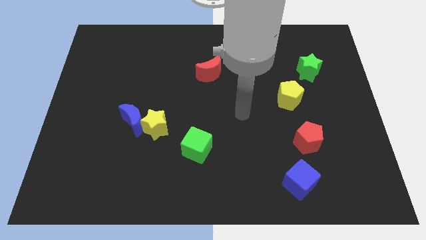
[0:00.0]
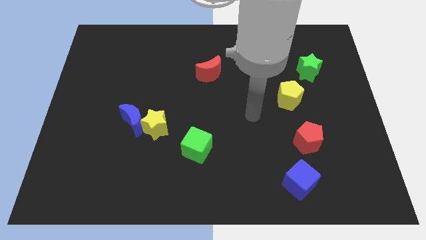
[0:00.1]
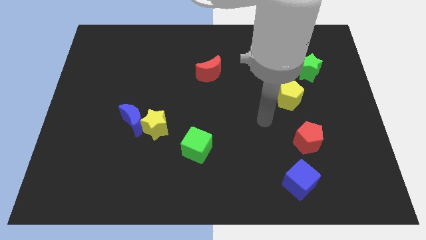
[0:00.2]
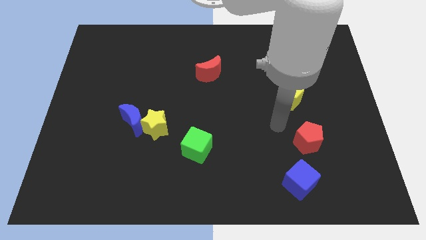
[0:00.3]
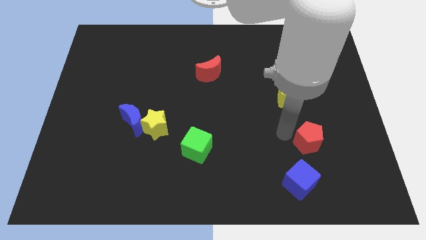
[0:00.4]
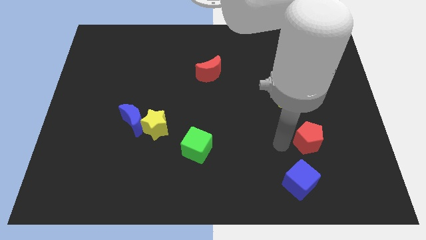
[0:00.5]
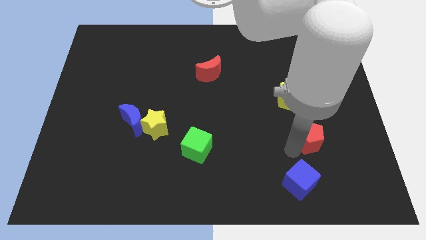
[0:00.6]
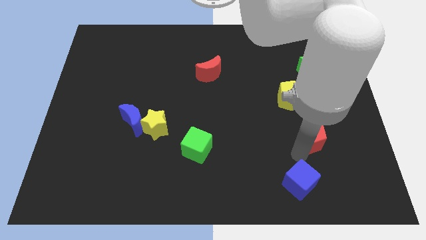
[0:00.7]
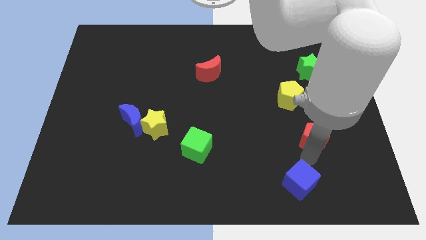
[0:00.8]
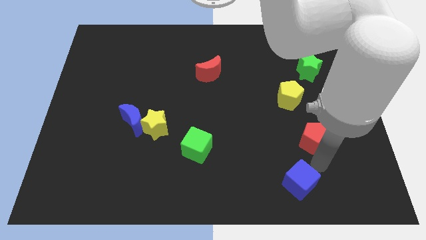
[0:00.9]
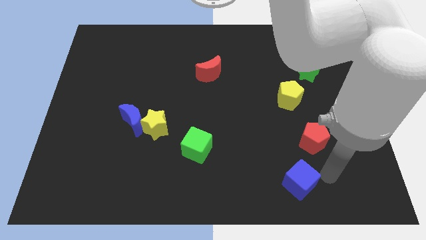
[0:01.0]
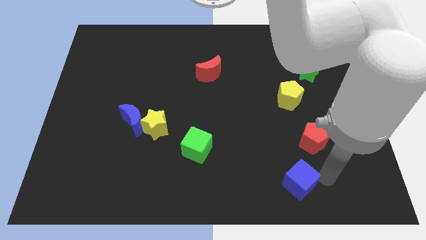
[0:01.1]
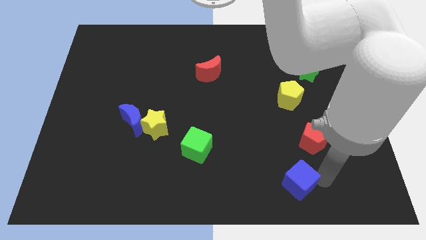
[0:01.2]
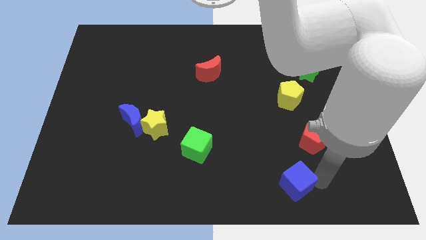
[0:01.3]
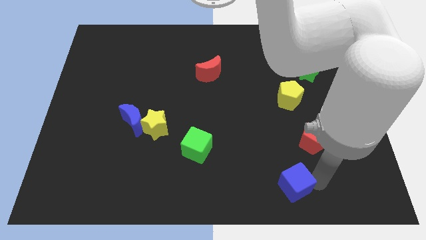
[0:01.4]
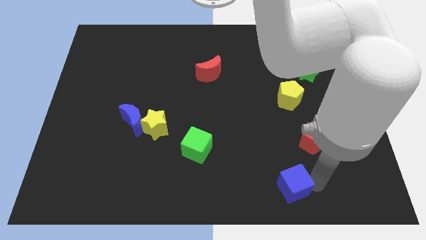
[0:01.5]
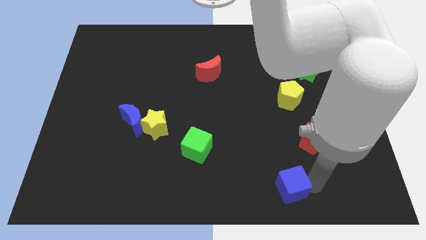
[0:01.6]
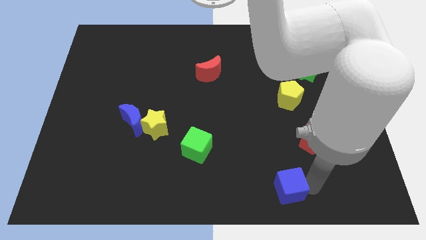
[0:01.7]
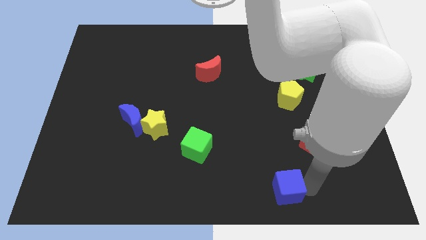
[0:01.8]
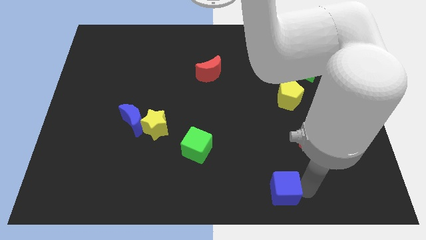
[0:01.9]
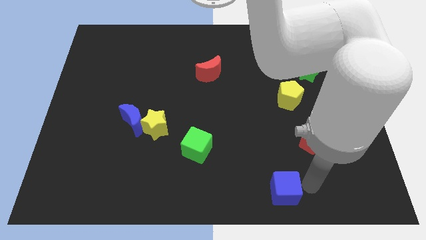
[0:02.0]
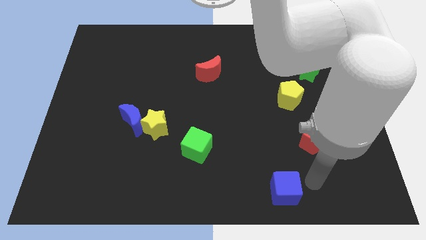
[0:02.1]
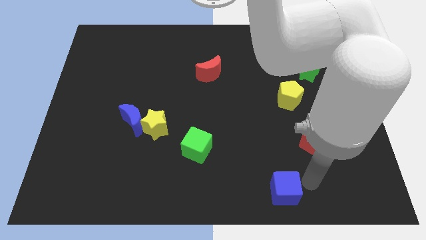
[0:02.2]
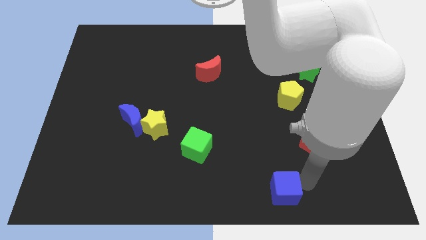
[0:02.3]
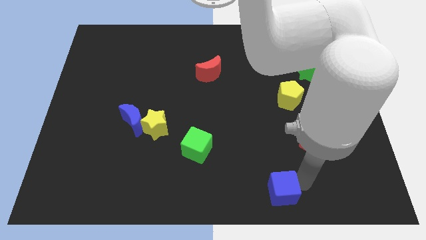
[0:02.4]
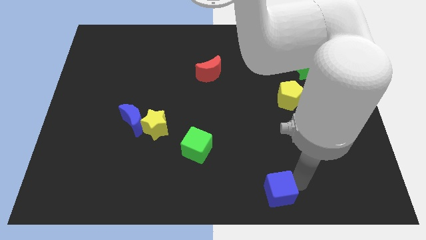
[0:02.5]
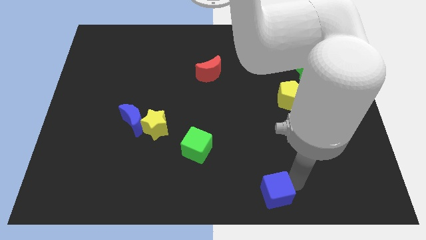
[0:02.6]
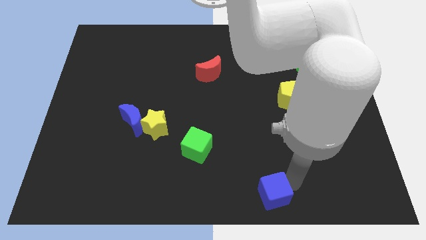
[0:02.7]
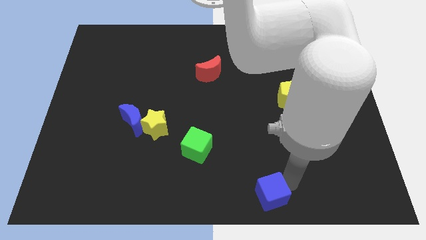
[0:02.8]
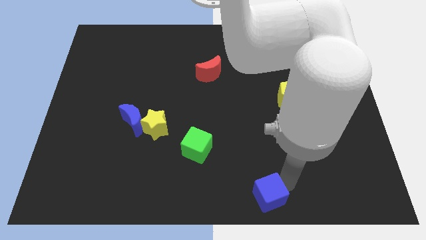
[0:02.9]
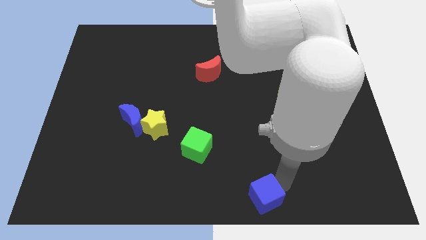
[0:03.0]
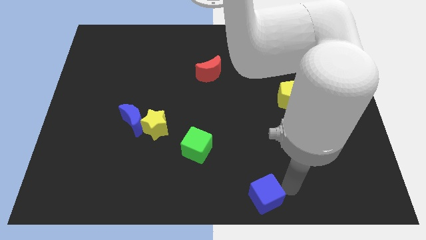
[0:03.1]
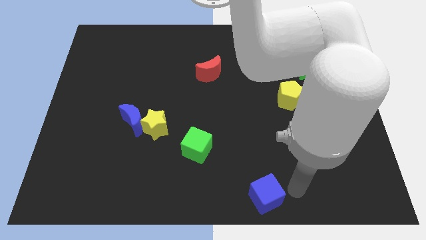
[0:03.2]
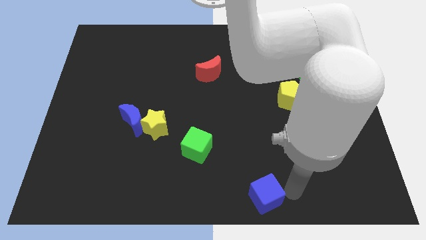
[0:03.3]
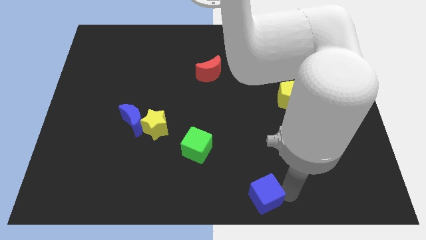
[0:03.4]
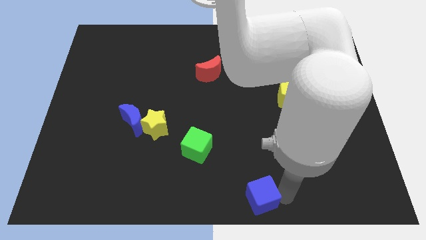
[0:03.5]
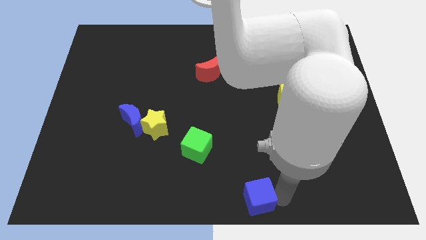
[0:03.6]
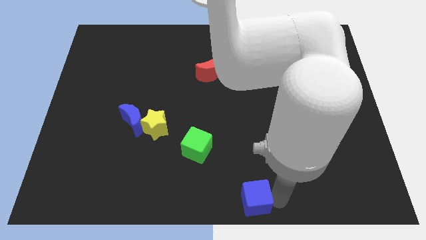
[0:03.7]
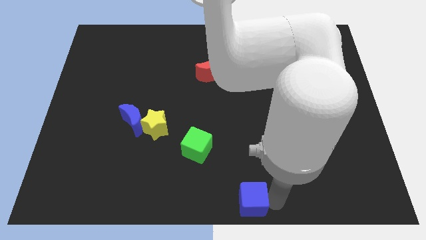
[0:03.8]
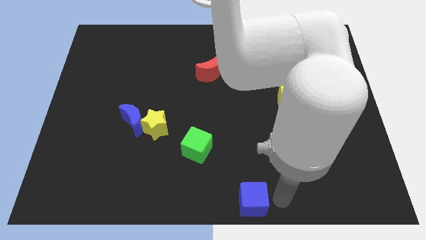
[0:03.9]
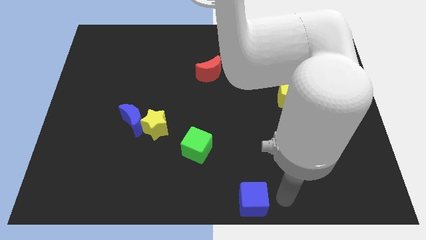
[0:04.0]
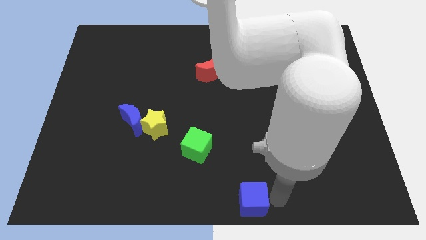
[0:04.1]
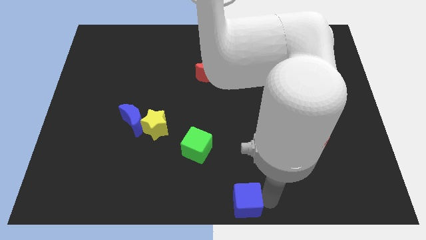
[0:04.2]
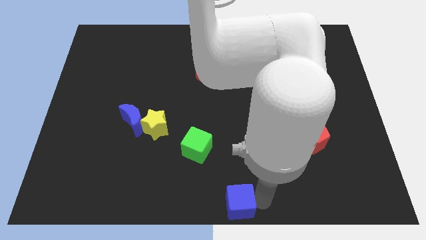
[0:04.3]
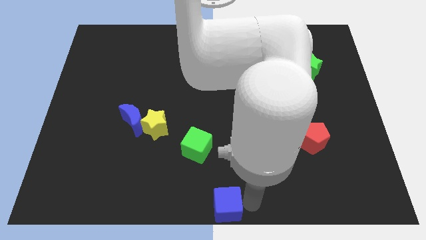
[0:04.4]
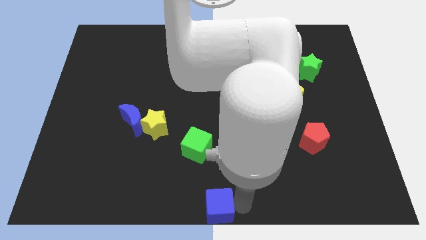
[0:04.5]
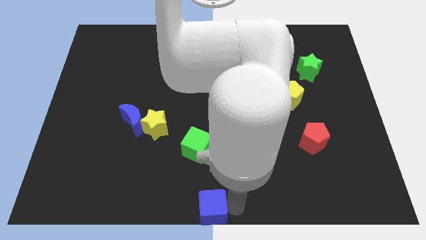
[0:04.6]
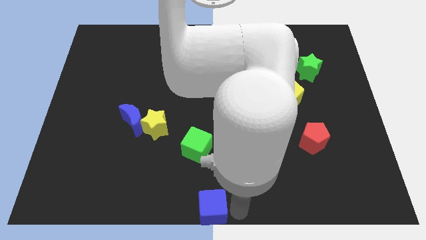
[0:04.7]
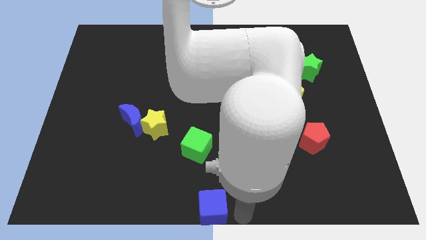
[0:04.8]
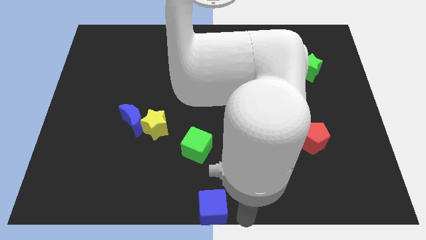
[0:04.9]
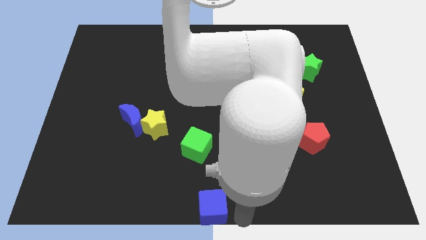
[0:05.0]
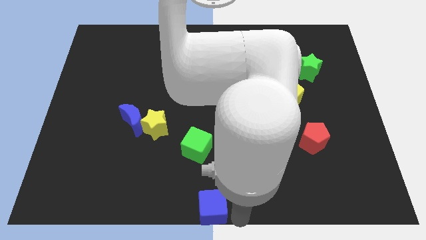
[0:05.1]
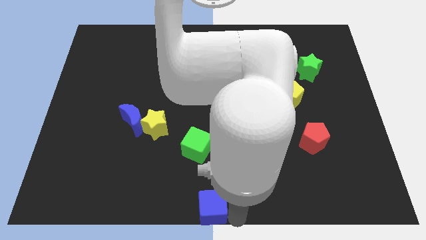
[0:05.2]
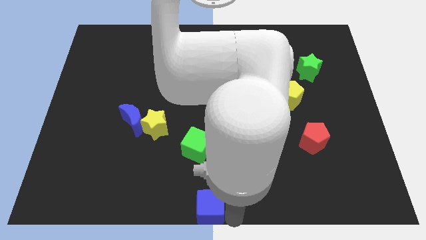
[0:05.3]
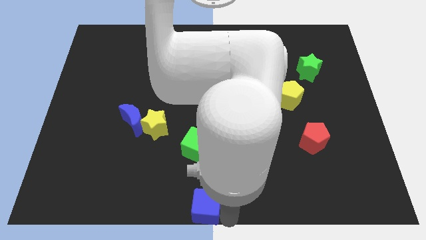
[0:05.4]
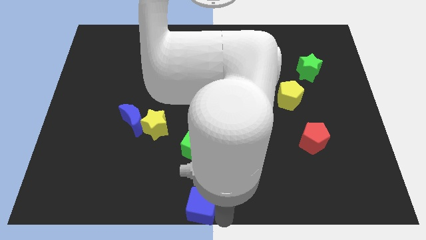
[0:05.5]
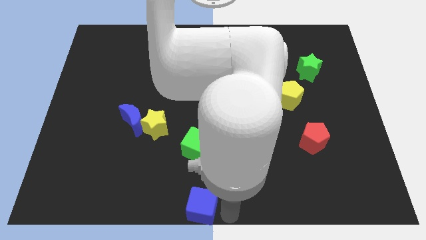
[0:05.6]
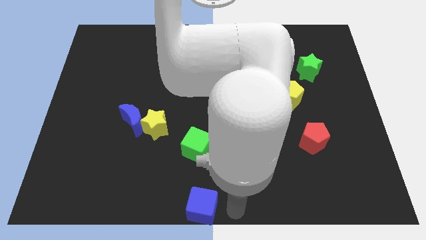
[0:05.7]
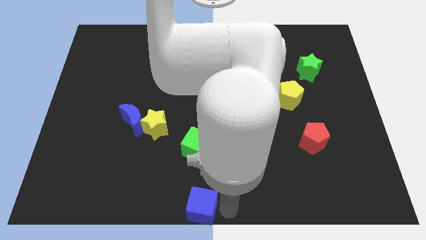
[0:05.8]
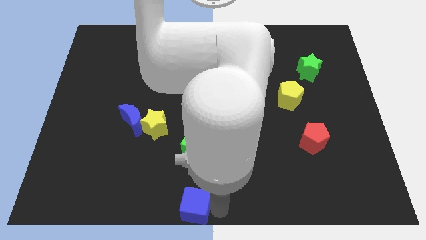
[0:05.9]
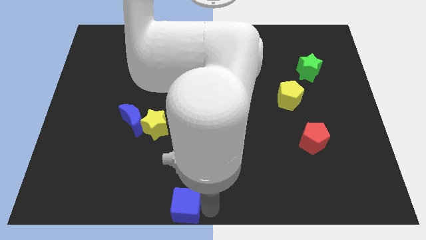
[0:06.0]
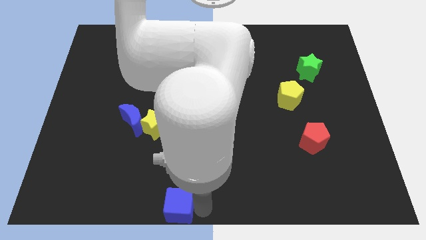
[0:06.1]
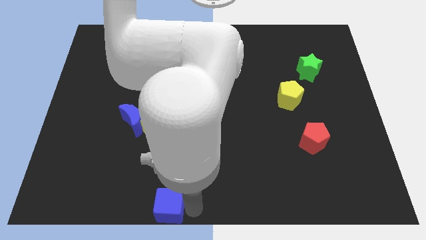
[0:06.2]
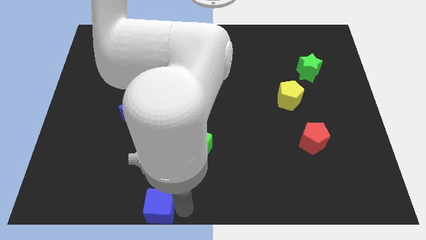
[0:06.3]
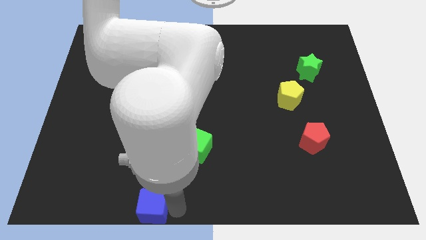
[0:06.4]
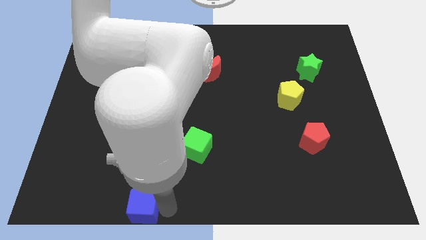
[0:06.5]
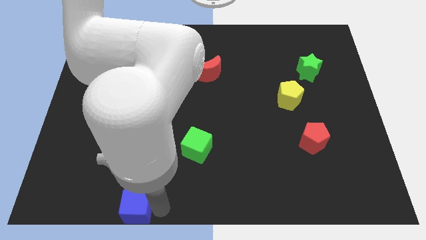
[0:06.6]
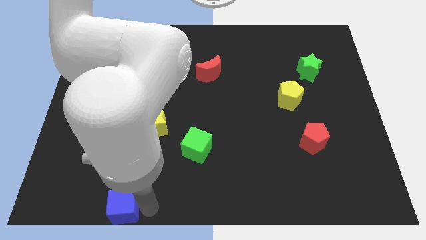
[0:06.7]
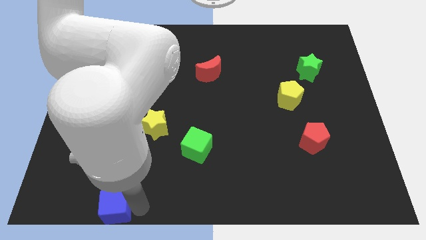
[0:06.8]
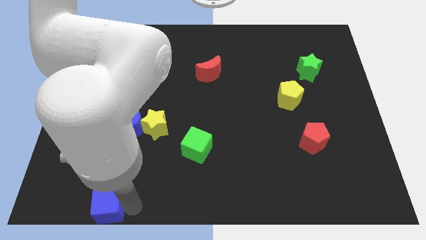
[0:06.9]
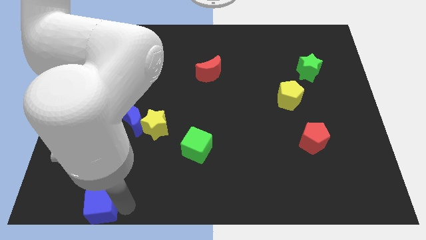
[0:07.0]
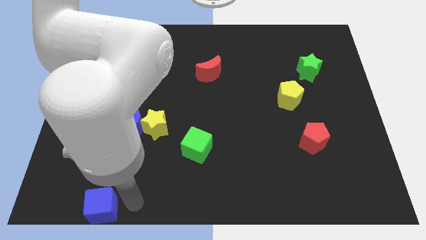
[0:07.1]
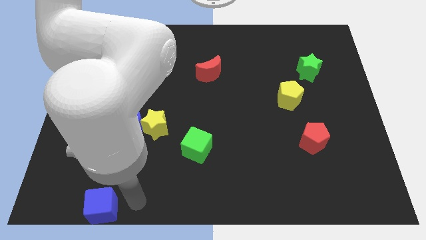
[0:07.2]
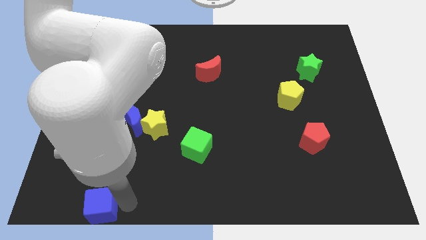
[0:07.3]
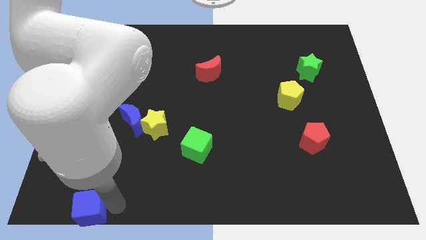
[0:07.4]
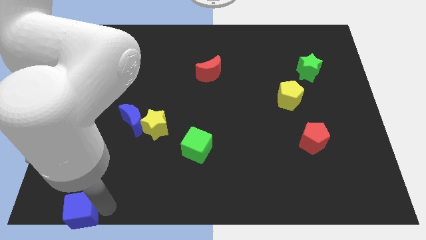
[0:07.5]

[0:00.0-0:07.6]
move the blue cube to the bottom left of the board
